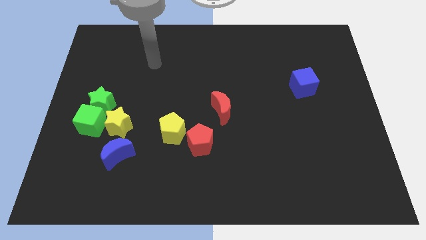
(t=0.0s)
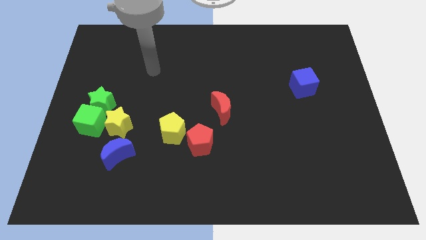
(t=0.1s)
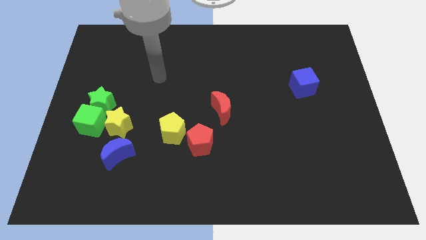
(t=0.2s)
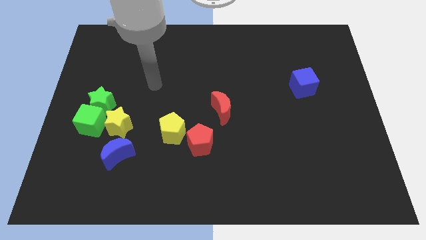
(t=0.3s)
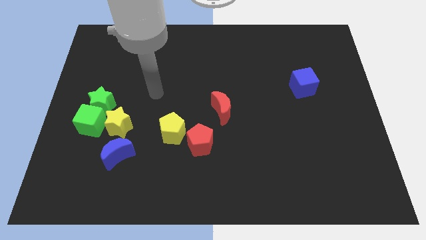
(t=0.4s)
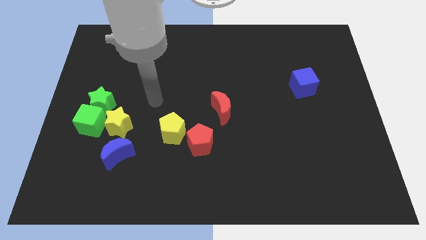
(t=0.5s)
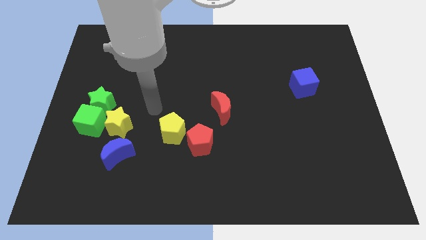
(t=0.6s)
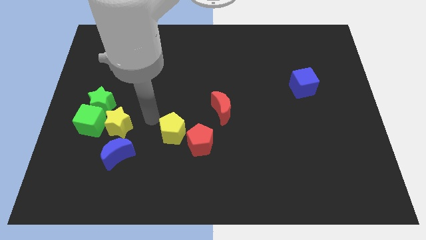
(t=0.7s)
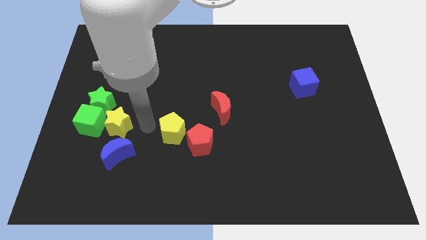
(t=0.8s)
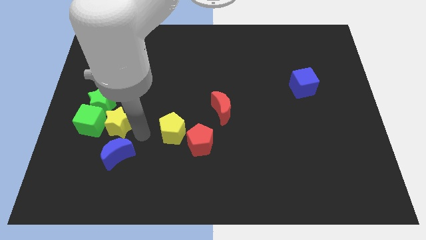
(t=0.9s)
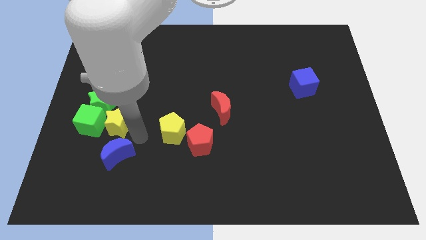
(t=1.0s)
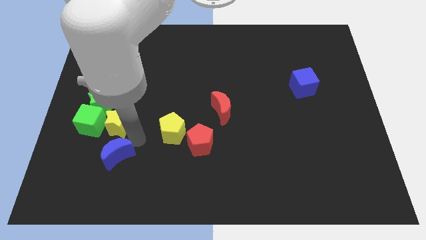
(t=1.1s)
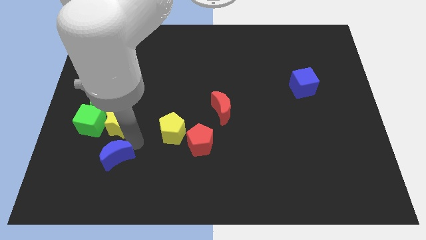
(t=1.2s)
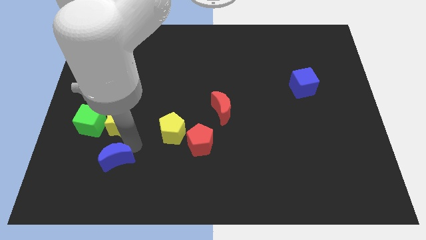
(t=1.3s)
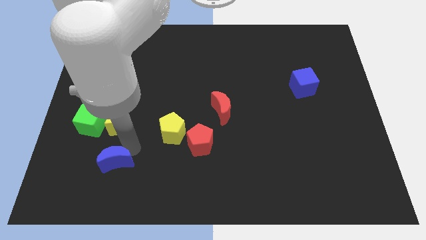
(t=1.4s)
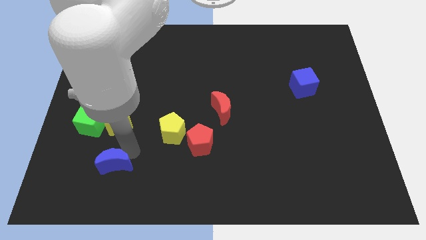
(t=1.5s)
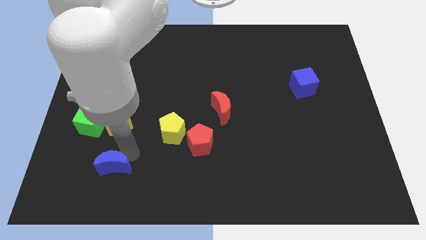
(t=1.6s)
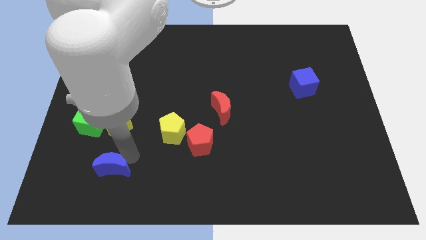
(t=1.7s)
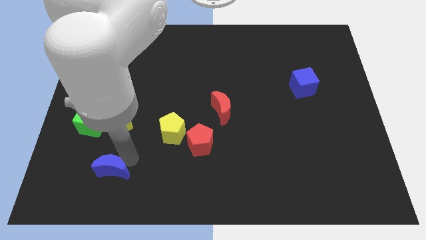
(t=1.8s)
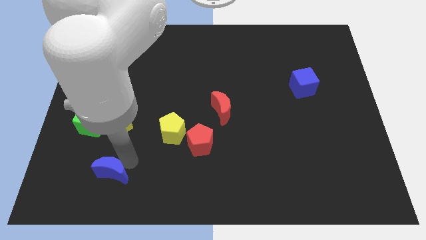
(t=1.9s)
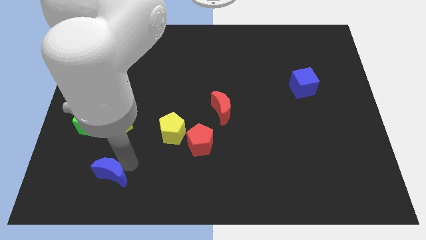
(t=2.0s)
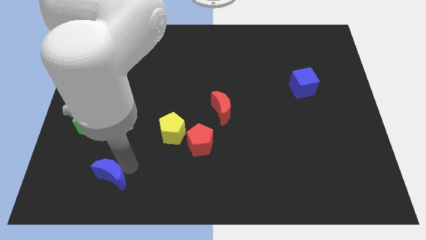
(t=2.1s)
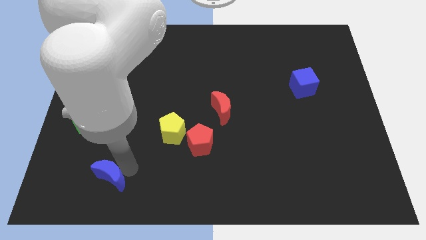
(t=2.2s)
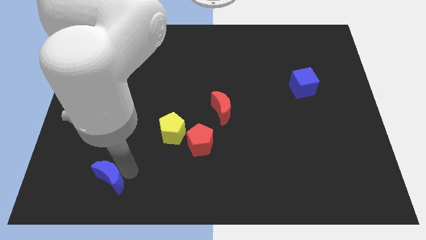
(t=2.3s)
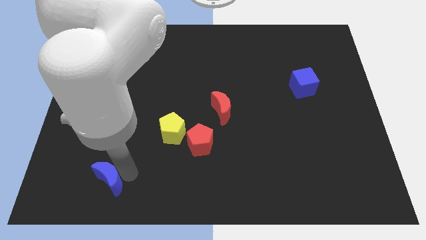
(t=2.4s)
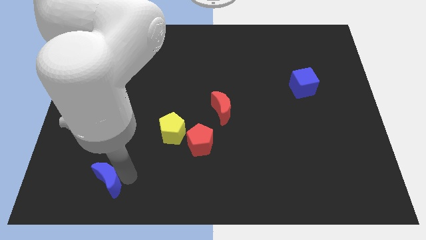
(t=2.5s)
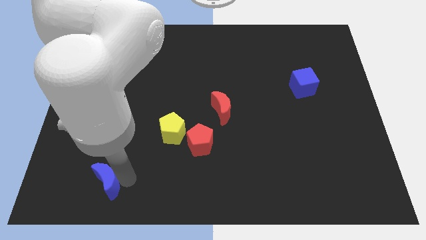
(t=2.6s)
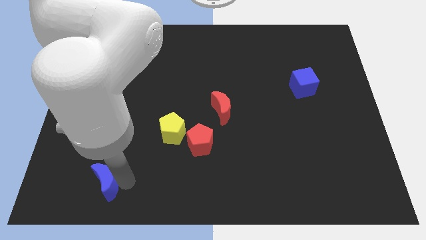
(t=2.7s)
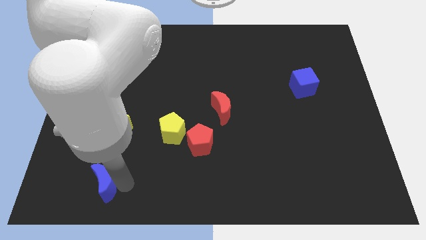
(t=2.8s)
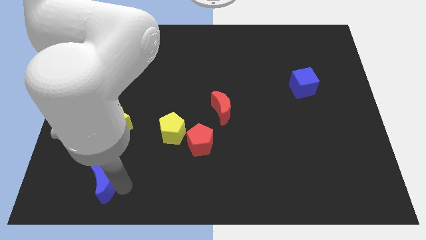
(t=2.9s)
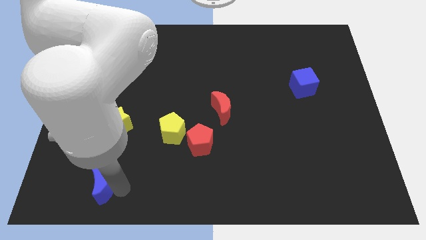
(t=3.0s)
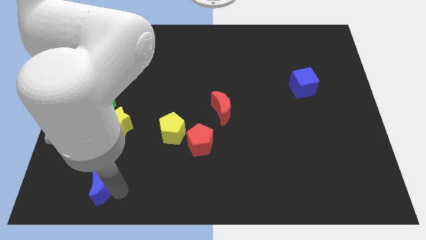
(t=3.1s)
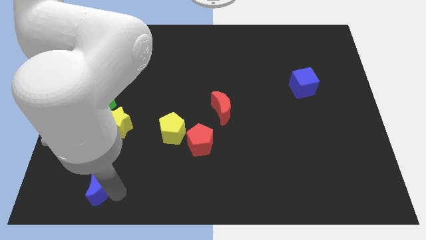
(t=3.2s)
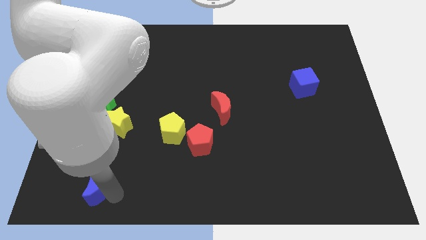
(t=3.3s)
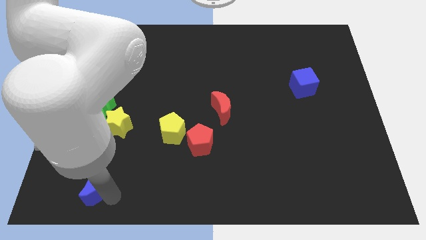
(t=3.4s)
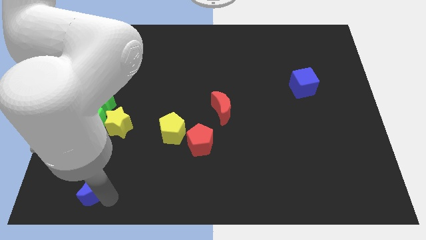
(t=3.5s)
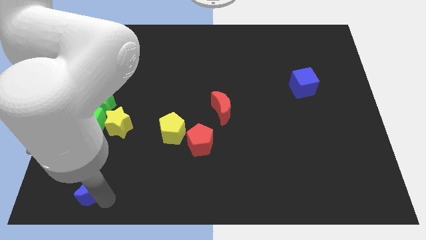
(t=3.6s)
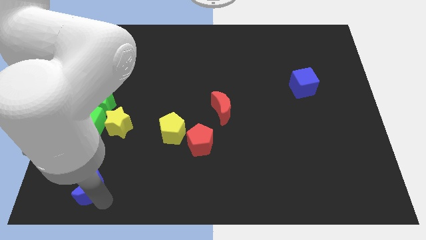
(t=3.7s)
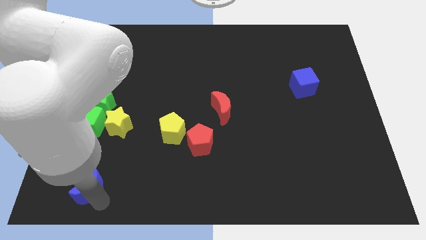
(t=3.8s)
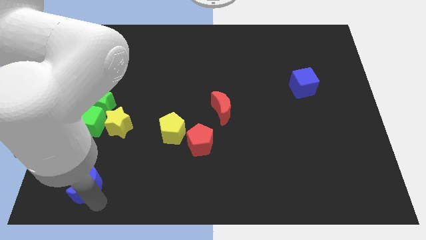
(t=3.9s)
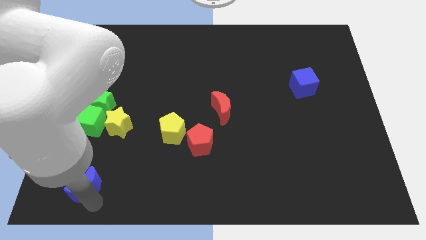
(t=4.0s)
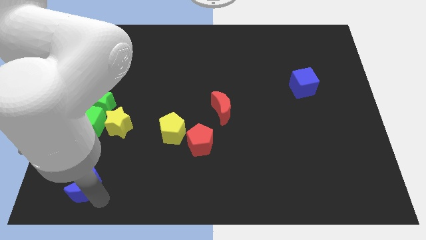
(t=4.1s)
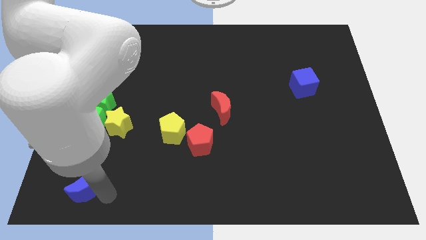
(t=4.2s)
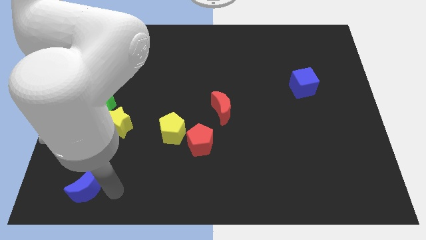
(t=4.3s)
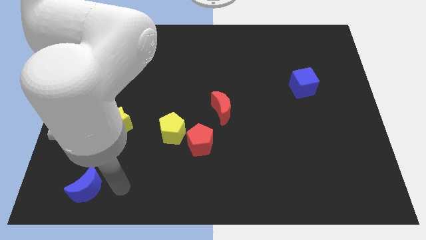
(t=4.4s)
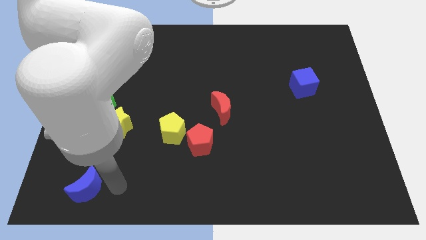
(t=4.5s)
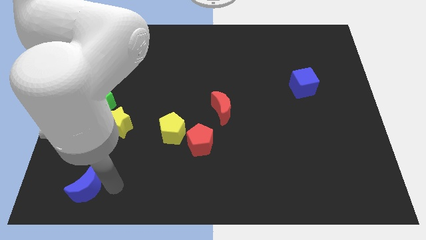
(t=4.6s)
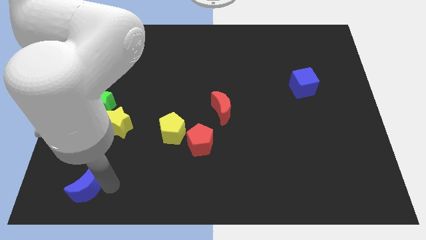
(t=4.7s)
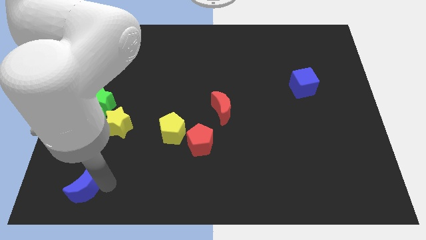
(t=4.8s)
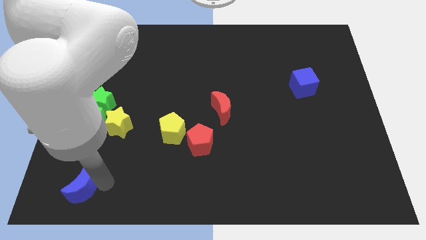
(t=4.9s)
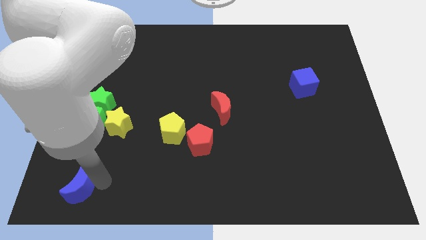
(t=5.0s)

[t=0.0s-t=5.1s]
push the blue moon to the lower left corner

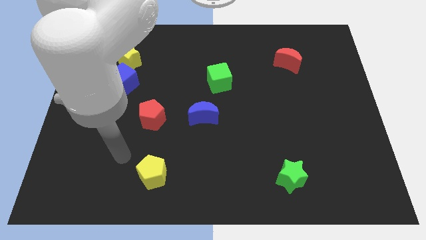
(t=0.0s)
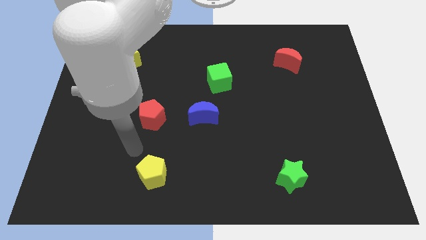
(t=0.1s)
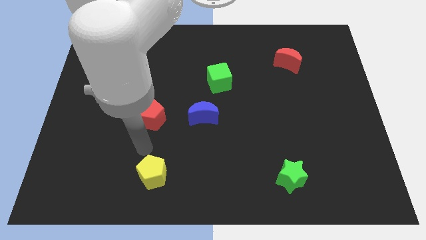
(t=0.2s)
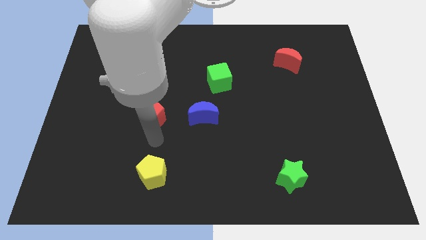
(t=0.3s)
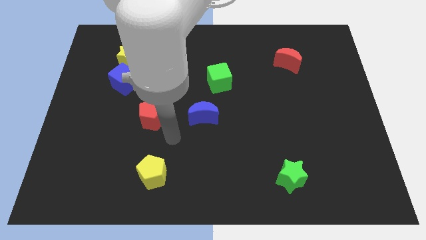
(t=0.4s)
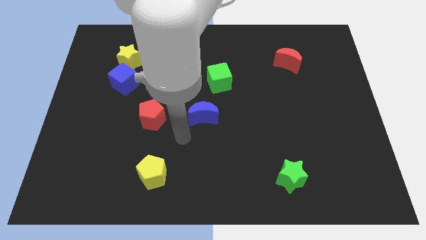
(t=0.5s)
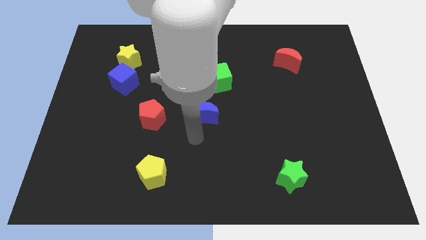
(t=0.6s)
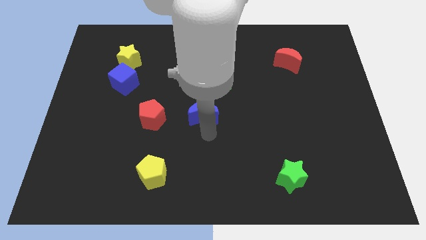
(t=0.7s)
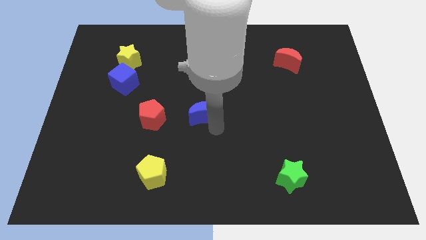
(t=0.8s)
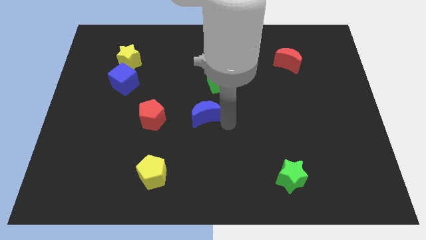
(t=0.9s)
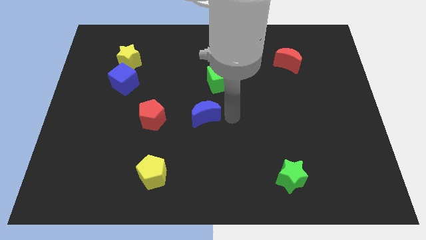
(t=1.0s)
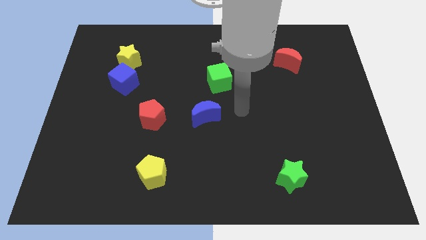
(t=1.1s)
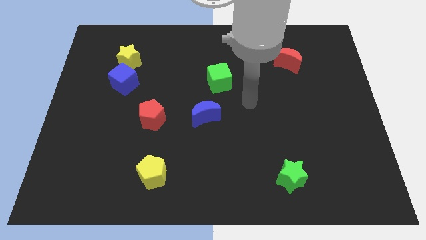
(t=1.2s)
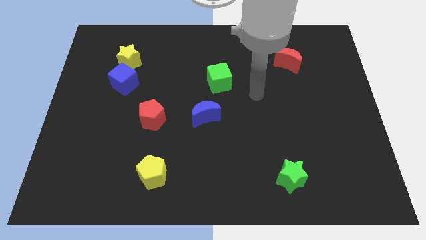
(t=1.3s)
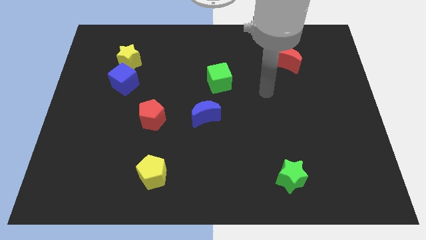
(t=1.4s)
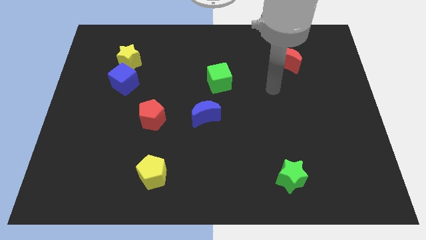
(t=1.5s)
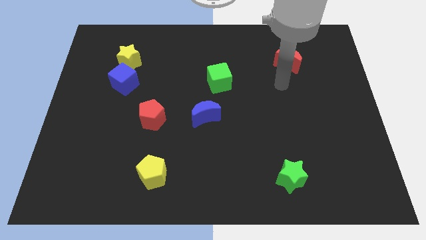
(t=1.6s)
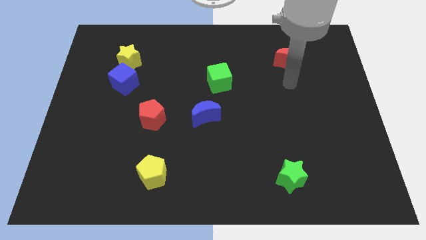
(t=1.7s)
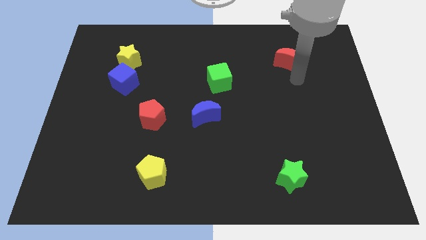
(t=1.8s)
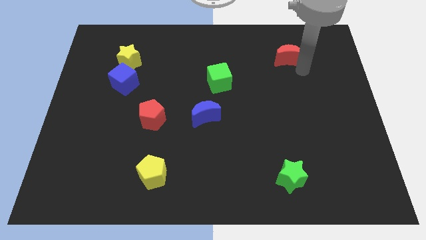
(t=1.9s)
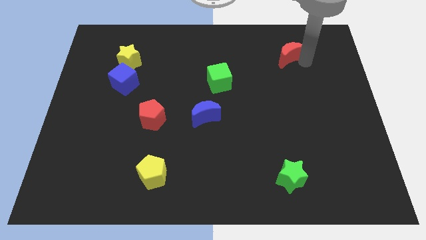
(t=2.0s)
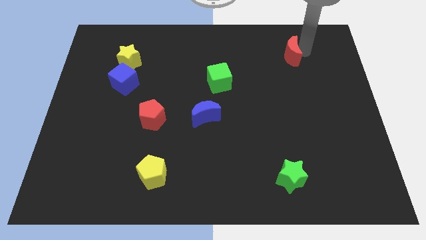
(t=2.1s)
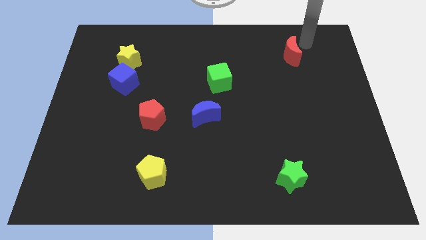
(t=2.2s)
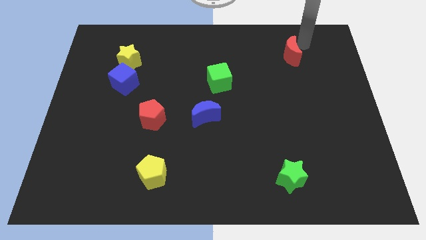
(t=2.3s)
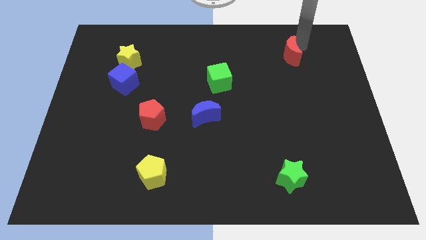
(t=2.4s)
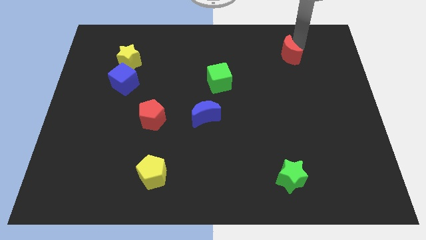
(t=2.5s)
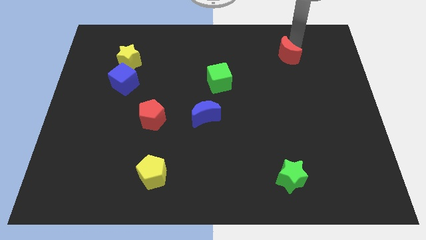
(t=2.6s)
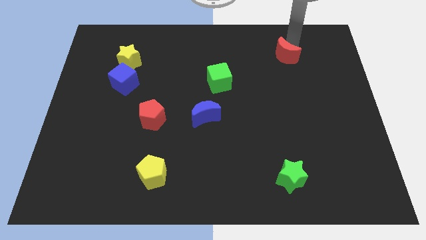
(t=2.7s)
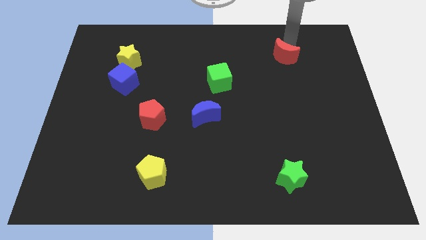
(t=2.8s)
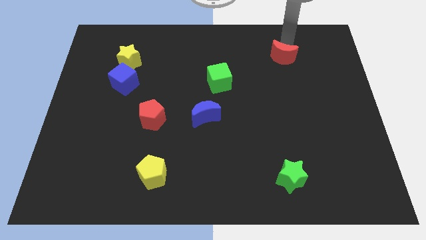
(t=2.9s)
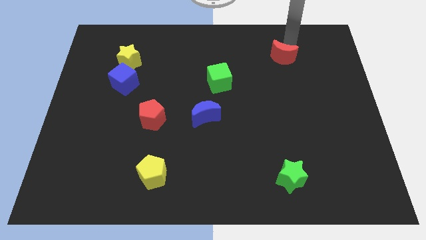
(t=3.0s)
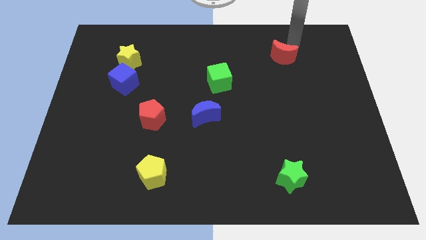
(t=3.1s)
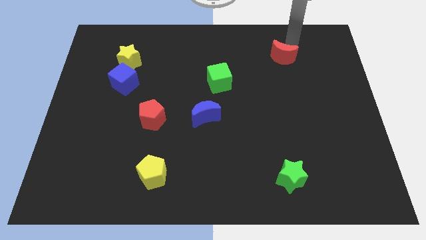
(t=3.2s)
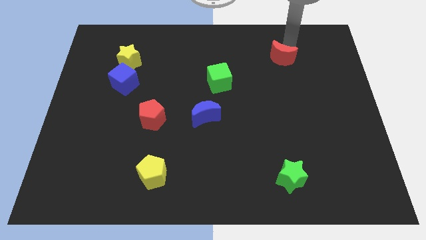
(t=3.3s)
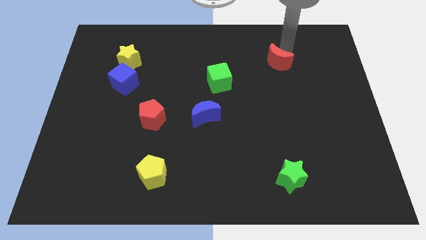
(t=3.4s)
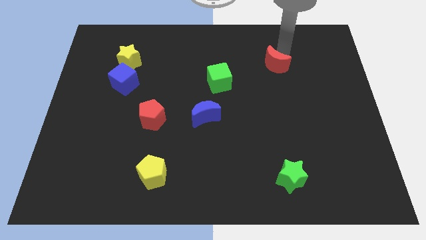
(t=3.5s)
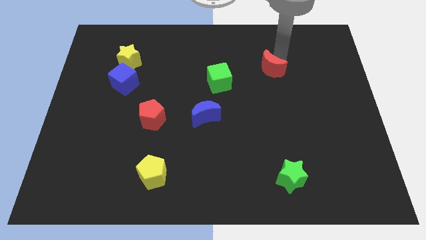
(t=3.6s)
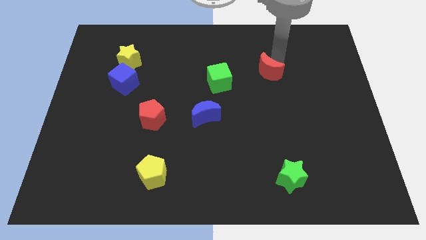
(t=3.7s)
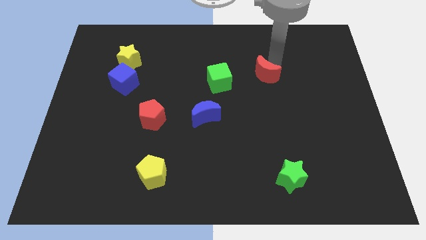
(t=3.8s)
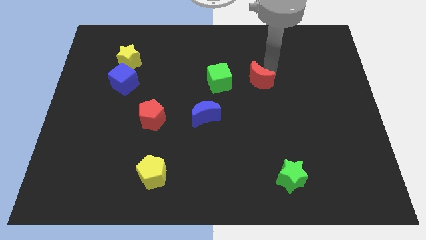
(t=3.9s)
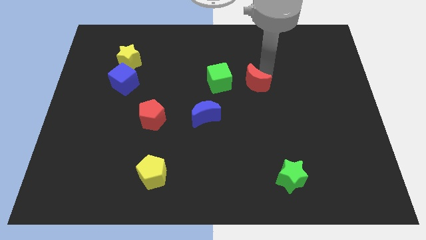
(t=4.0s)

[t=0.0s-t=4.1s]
put the red moon to the center
